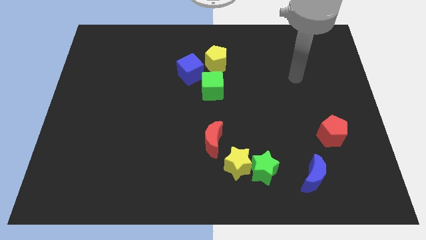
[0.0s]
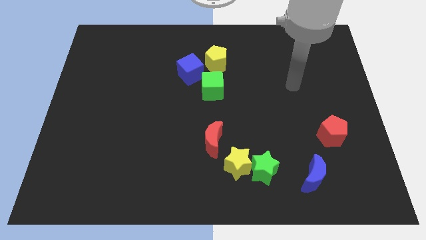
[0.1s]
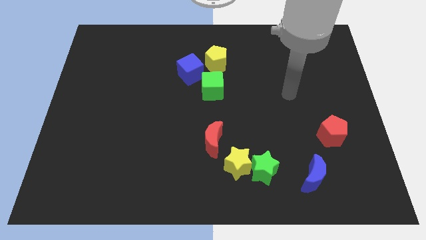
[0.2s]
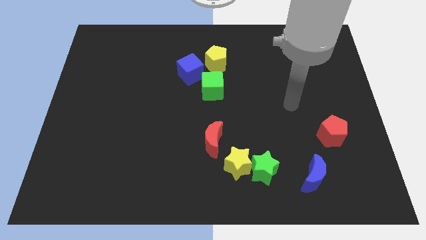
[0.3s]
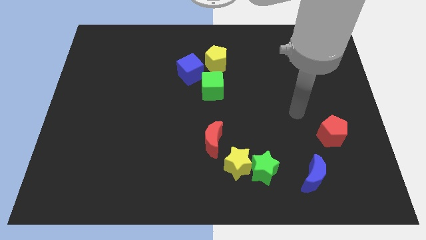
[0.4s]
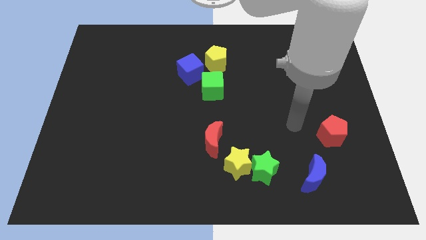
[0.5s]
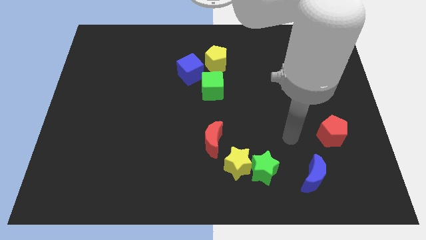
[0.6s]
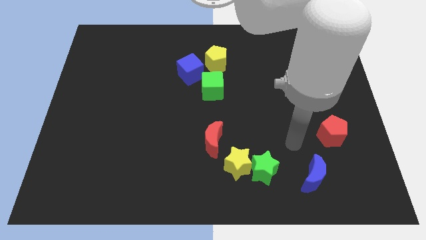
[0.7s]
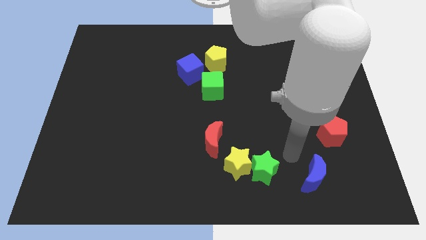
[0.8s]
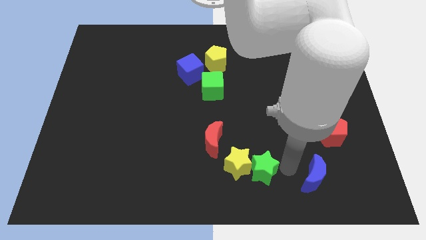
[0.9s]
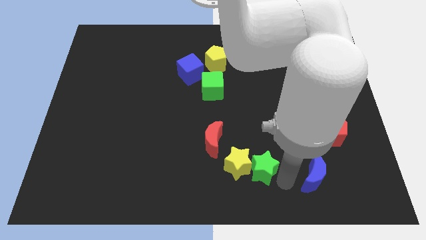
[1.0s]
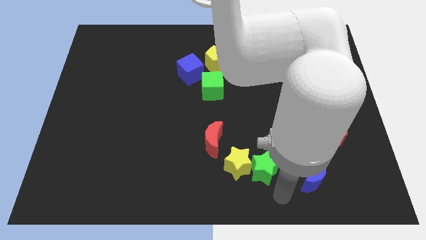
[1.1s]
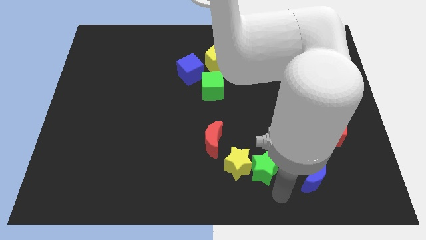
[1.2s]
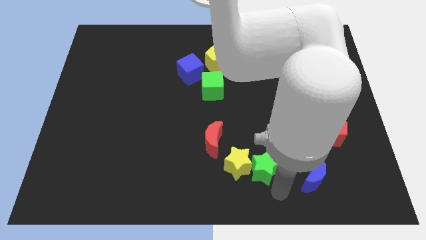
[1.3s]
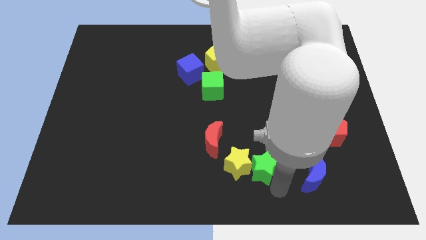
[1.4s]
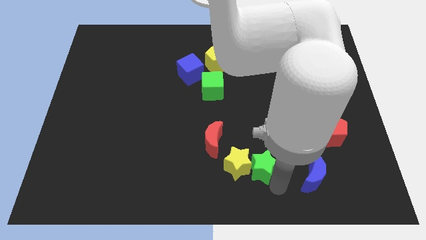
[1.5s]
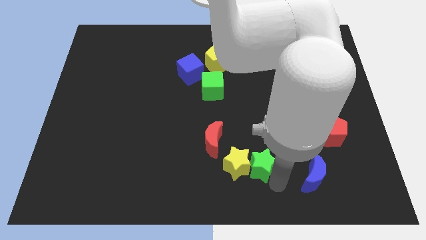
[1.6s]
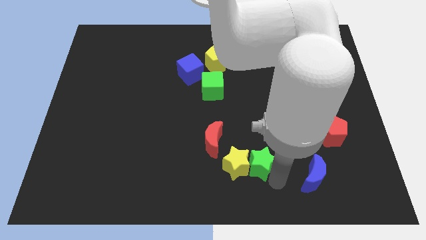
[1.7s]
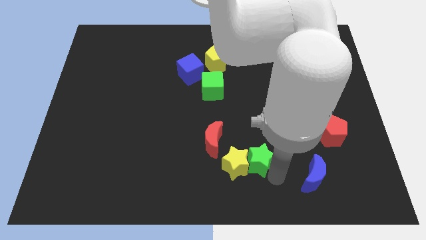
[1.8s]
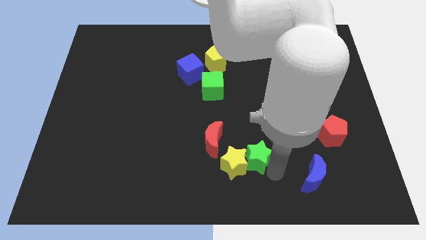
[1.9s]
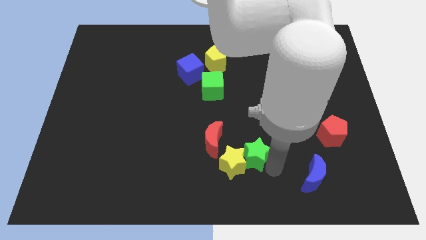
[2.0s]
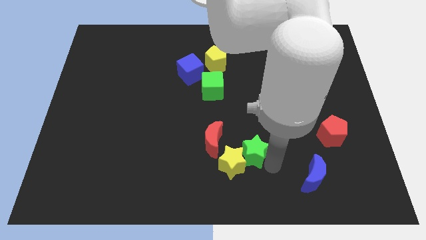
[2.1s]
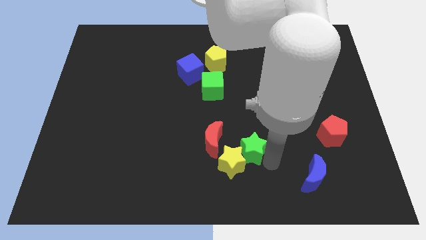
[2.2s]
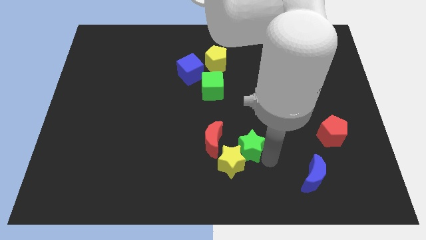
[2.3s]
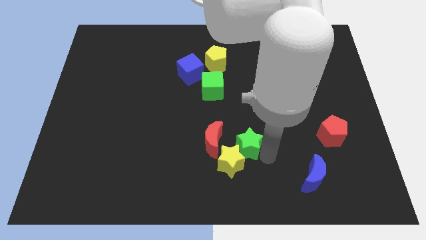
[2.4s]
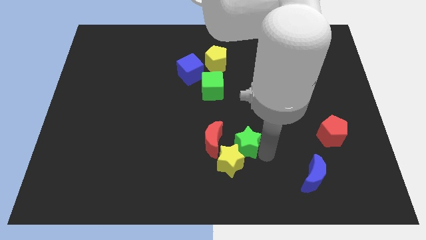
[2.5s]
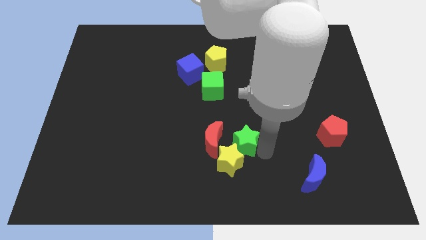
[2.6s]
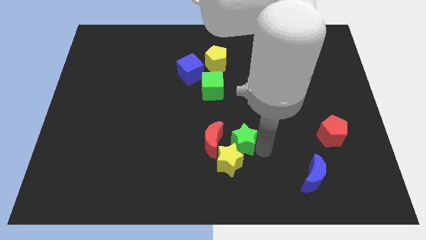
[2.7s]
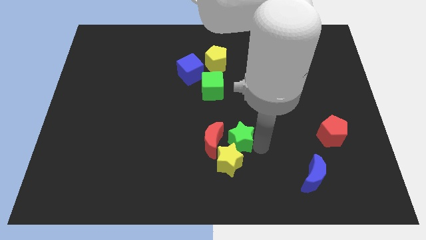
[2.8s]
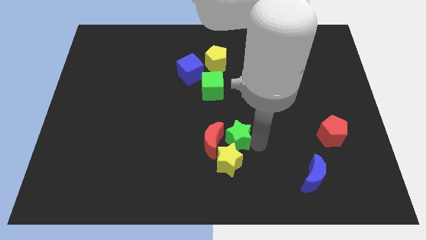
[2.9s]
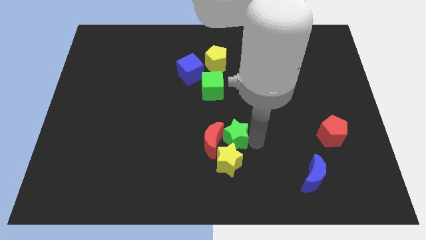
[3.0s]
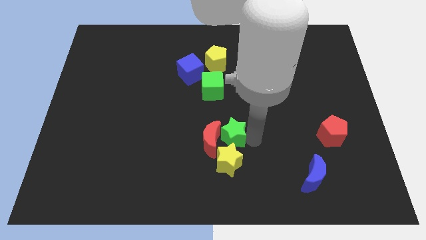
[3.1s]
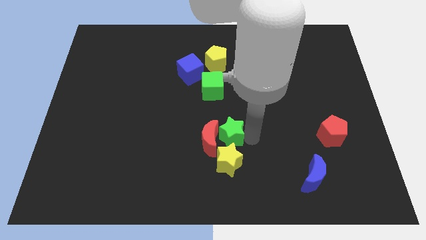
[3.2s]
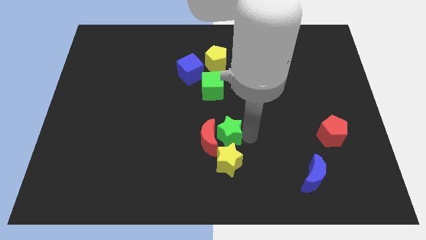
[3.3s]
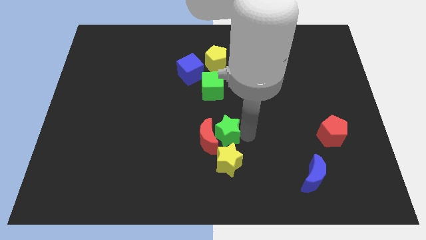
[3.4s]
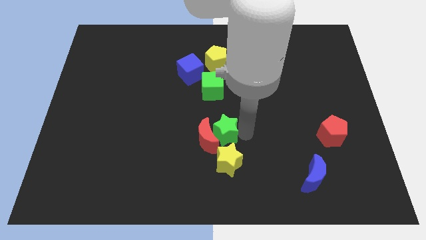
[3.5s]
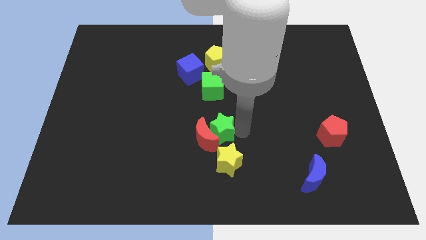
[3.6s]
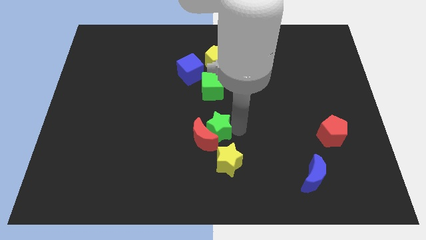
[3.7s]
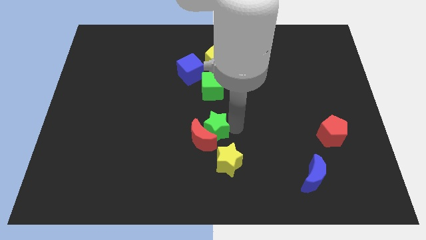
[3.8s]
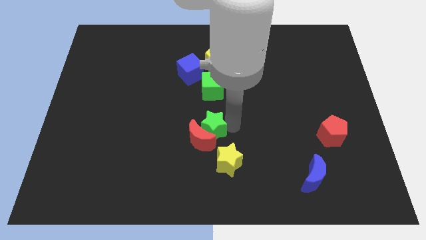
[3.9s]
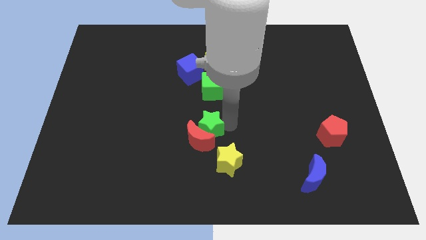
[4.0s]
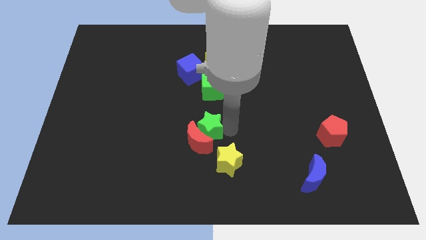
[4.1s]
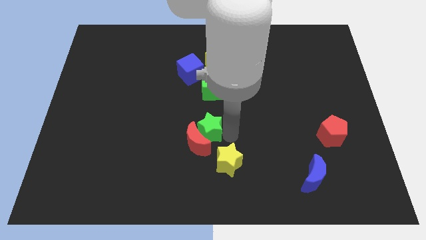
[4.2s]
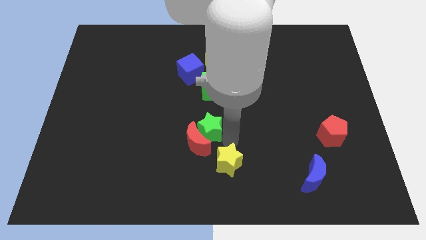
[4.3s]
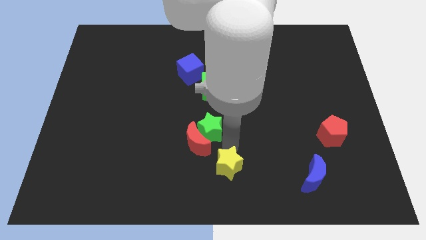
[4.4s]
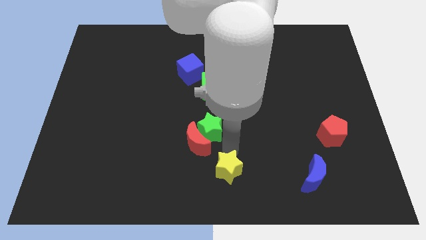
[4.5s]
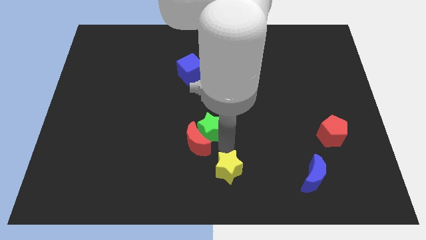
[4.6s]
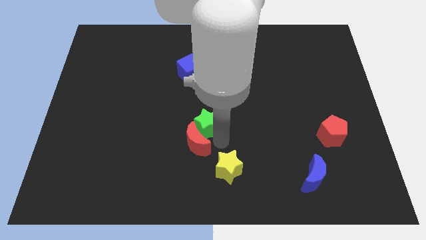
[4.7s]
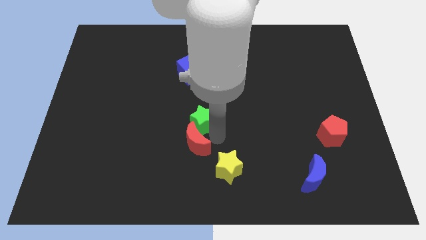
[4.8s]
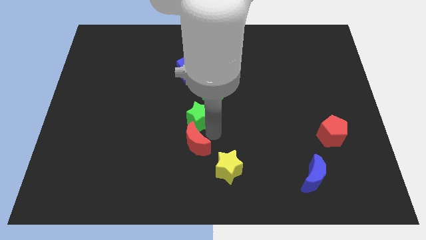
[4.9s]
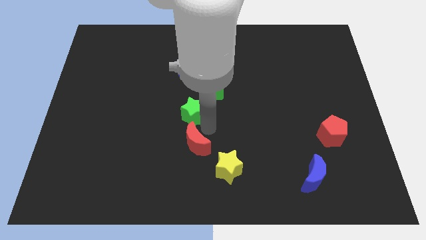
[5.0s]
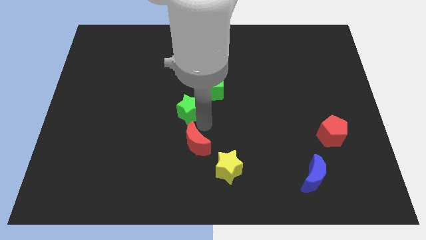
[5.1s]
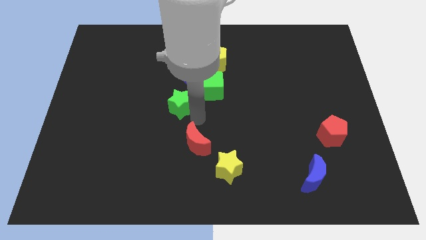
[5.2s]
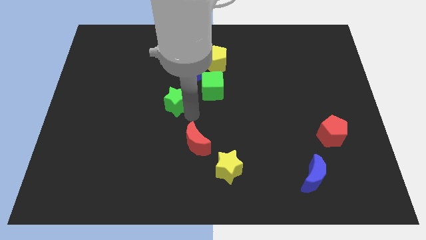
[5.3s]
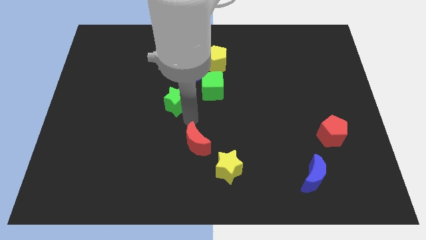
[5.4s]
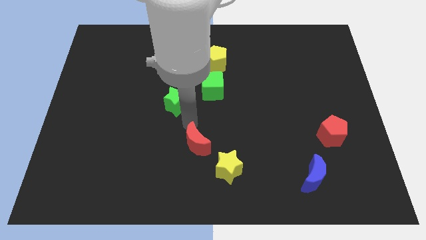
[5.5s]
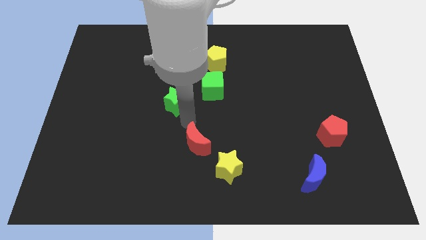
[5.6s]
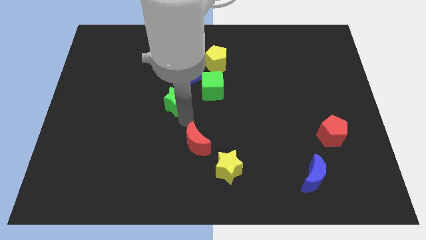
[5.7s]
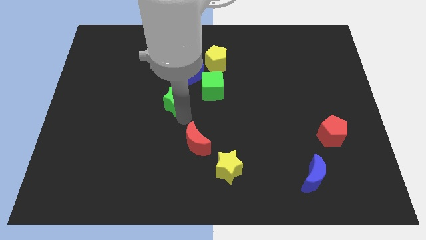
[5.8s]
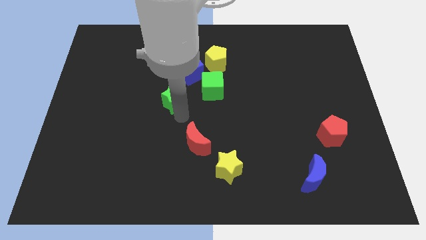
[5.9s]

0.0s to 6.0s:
put the green star diagonally down and to the left of the blue cube

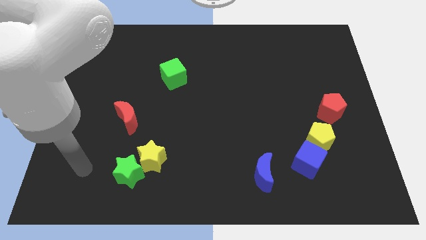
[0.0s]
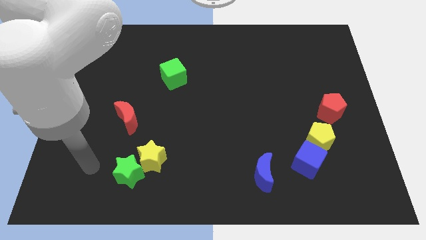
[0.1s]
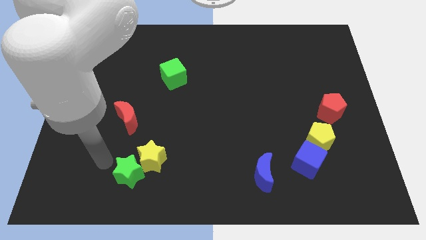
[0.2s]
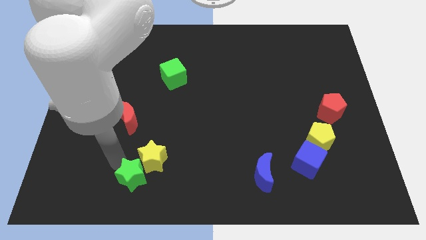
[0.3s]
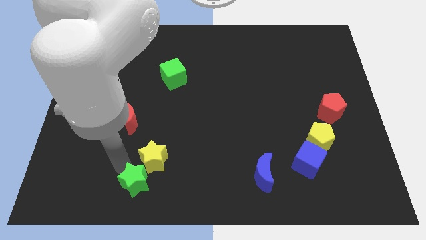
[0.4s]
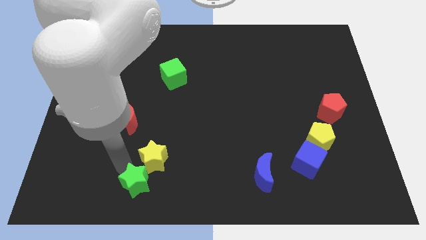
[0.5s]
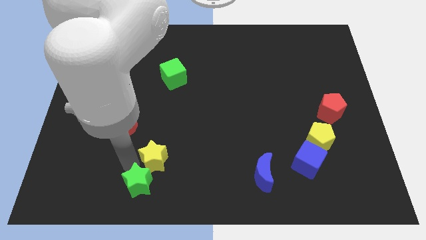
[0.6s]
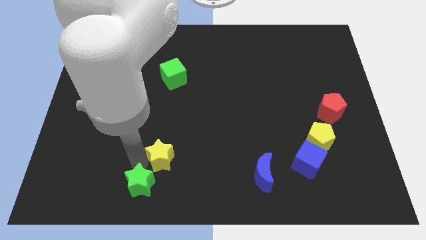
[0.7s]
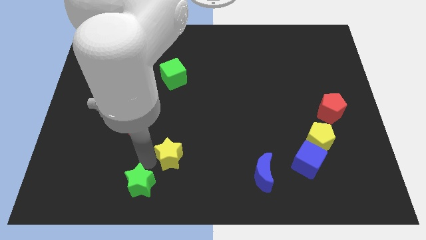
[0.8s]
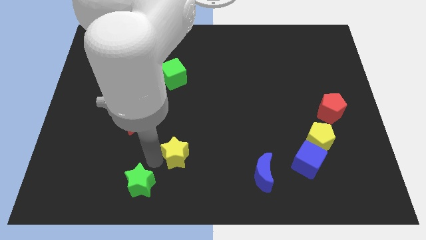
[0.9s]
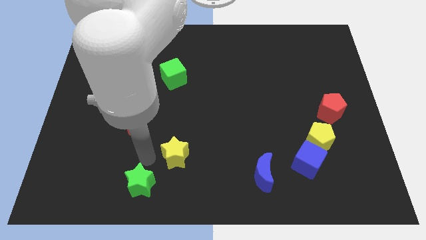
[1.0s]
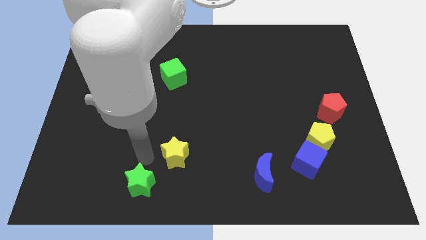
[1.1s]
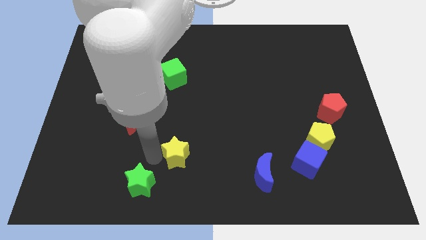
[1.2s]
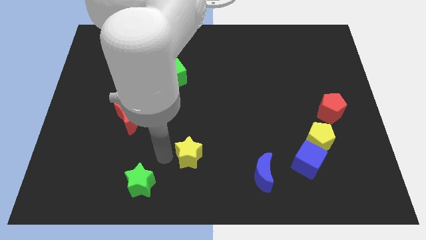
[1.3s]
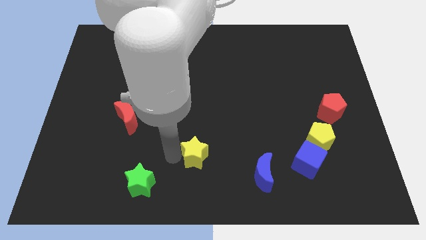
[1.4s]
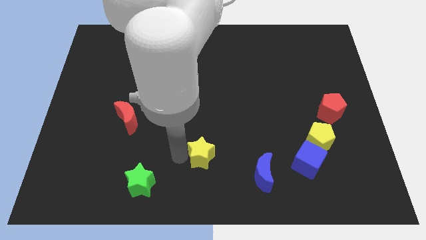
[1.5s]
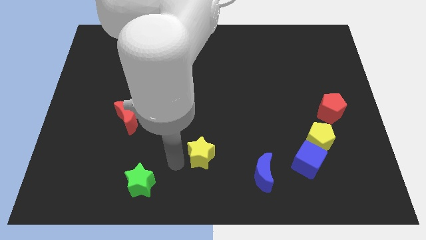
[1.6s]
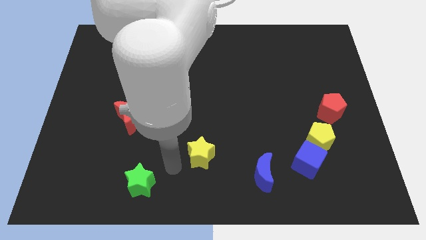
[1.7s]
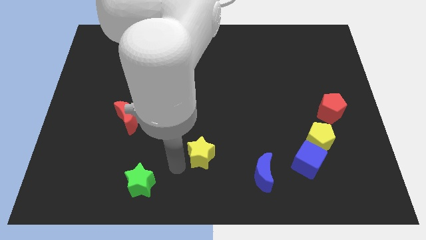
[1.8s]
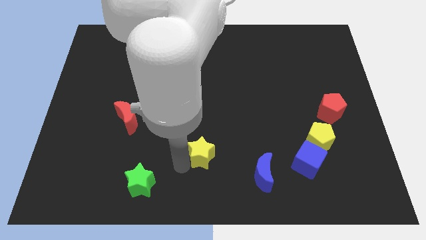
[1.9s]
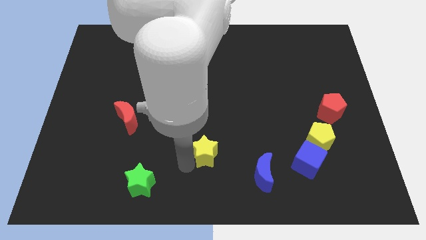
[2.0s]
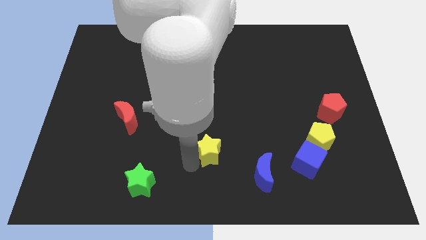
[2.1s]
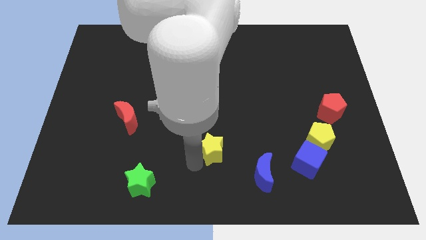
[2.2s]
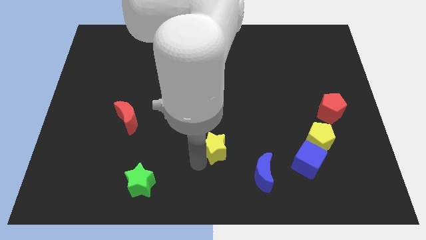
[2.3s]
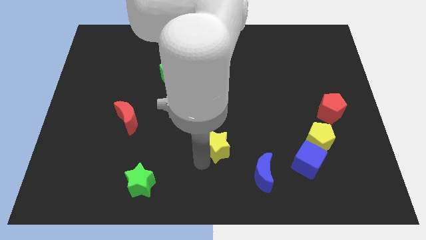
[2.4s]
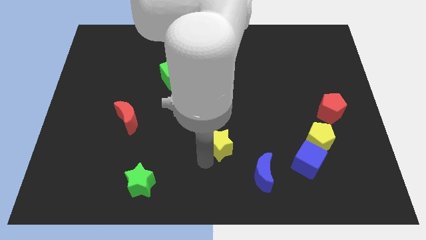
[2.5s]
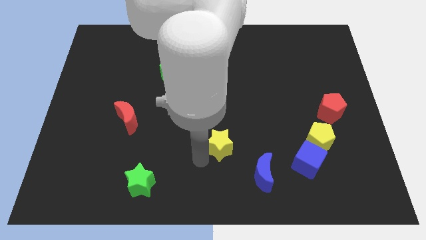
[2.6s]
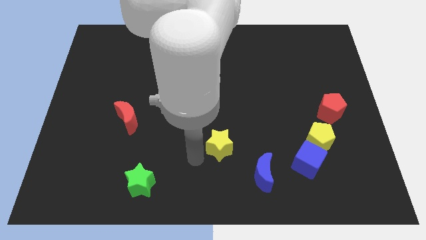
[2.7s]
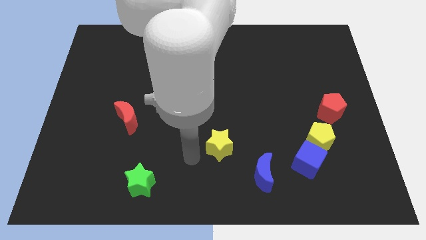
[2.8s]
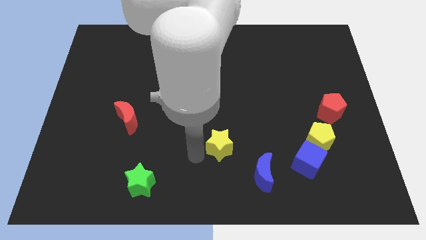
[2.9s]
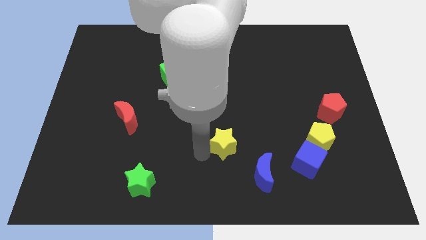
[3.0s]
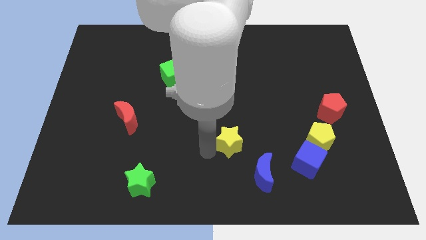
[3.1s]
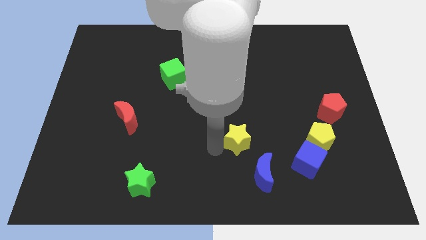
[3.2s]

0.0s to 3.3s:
put the yellow star above the blue moon
